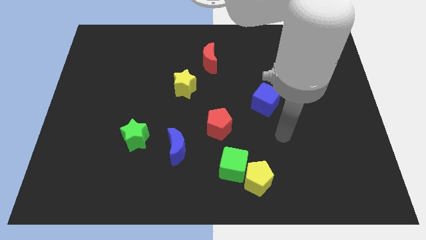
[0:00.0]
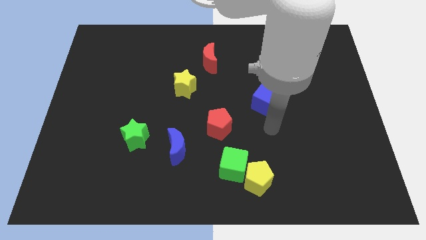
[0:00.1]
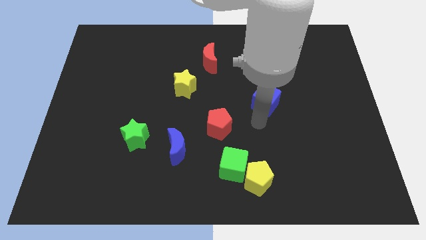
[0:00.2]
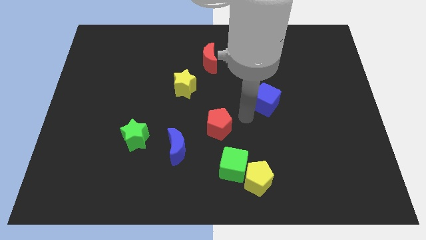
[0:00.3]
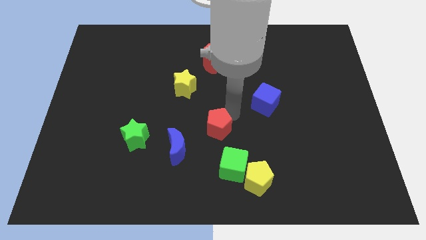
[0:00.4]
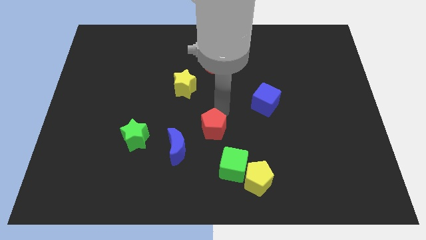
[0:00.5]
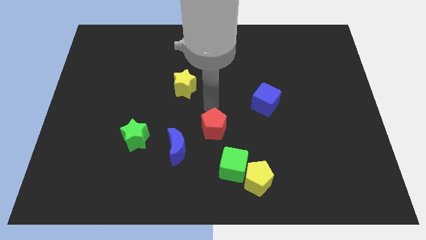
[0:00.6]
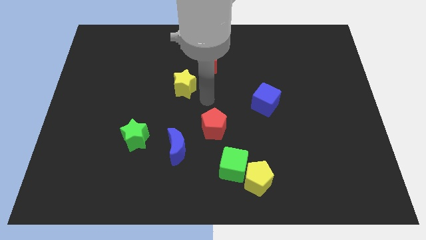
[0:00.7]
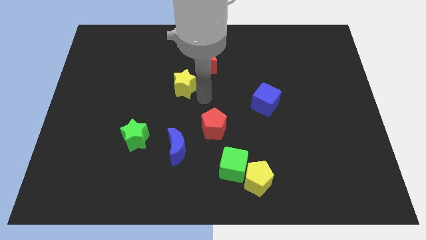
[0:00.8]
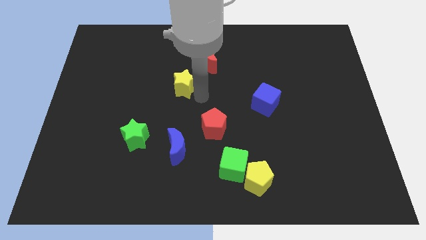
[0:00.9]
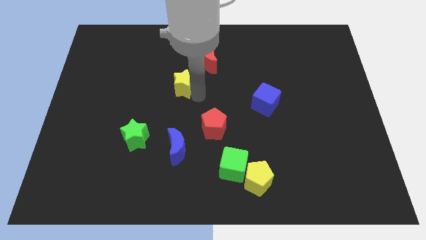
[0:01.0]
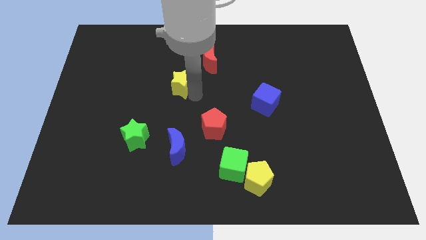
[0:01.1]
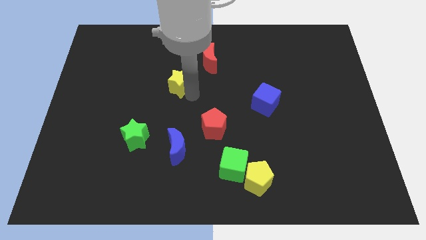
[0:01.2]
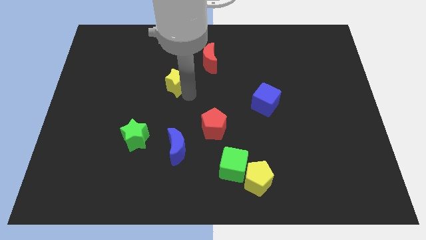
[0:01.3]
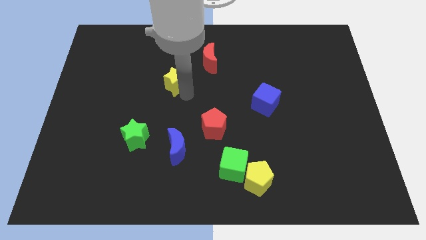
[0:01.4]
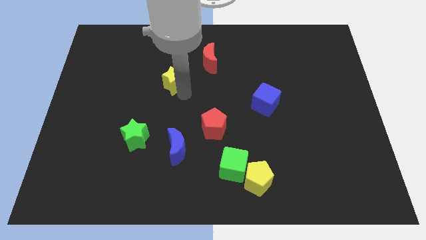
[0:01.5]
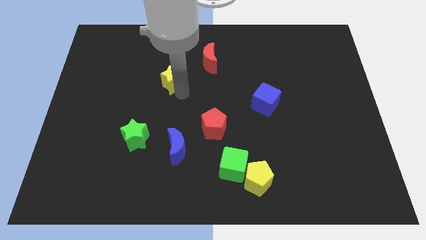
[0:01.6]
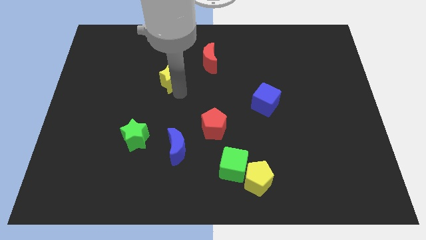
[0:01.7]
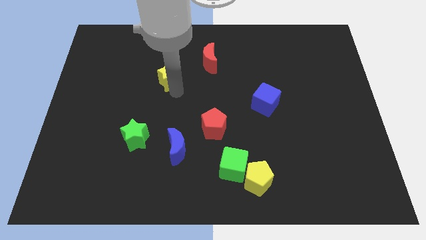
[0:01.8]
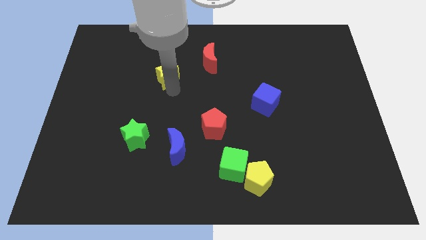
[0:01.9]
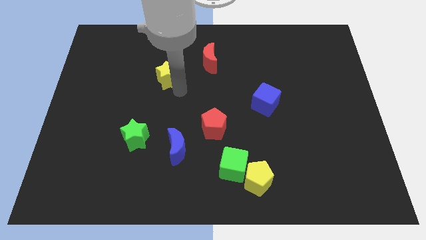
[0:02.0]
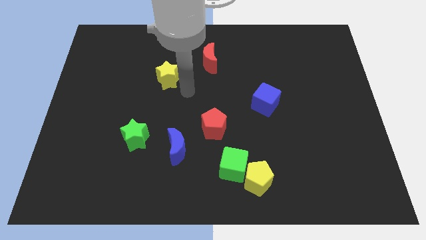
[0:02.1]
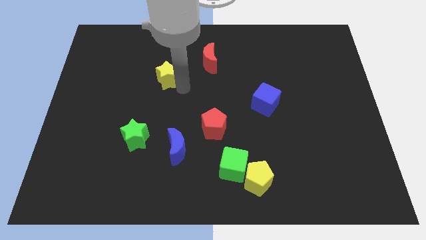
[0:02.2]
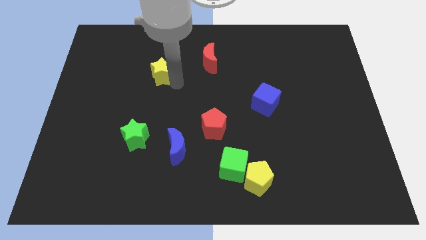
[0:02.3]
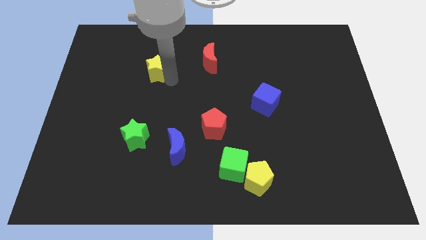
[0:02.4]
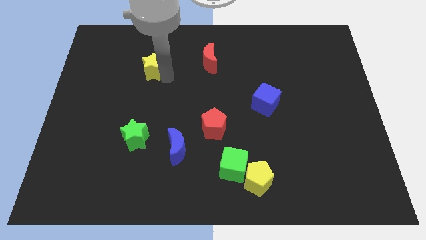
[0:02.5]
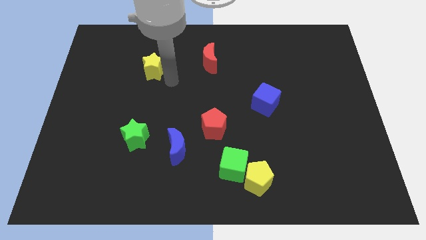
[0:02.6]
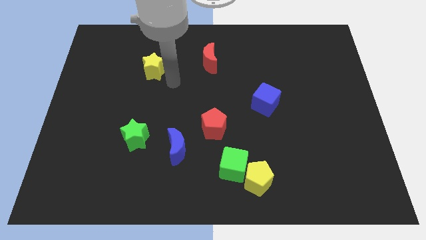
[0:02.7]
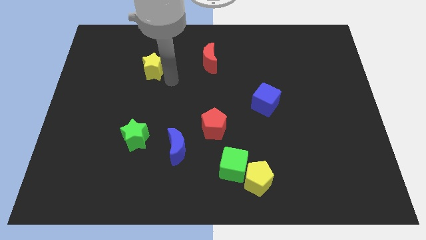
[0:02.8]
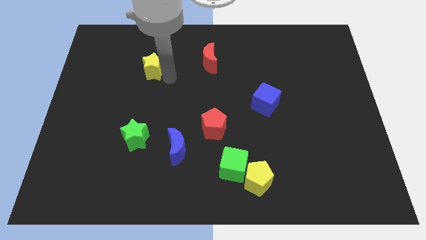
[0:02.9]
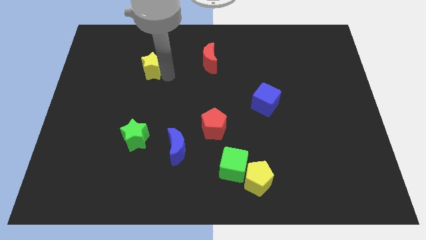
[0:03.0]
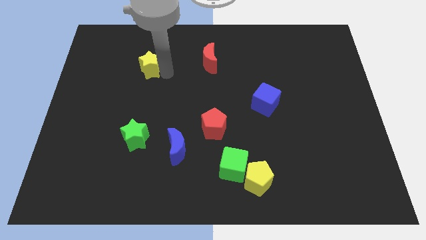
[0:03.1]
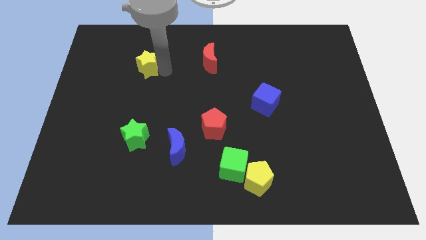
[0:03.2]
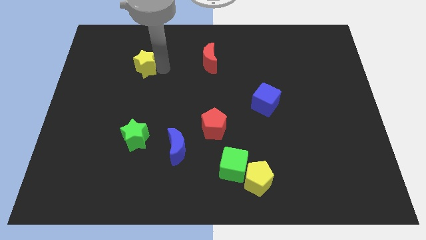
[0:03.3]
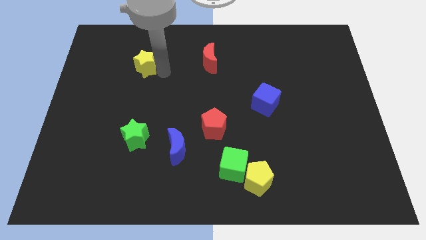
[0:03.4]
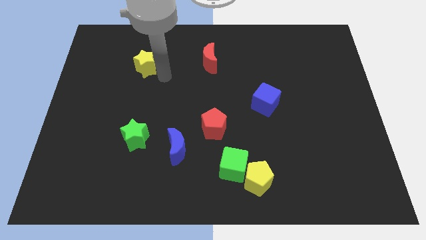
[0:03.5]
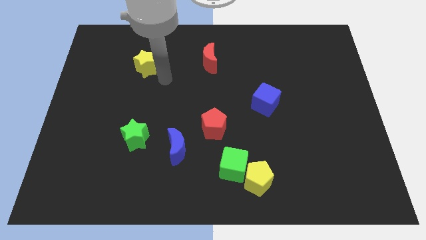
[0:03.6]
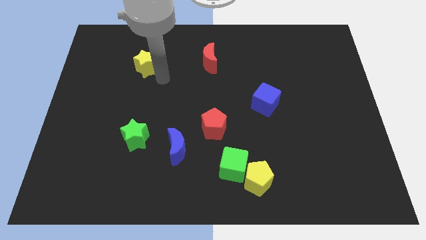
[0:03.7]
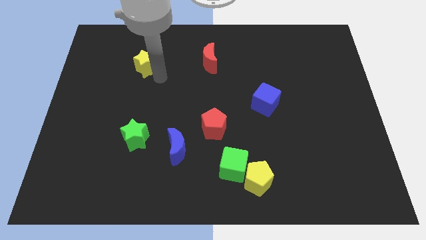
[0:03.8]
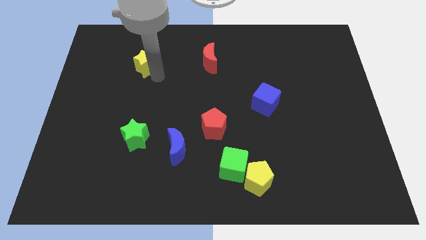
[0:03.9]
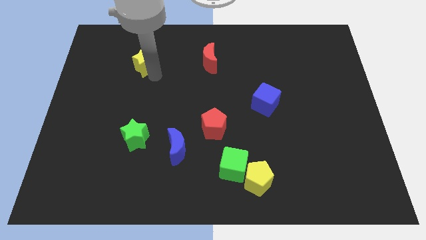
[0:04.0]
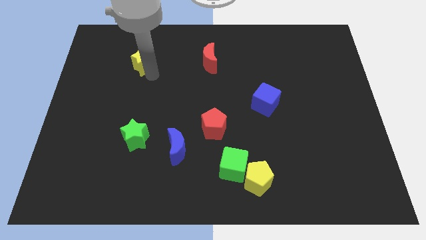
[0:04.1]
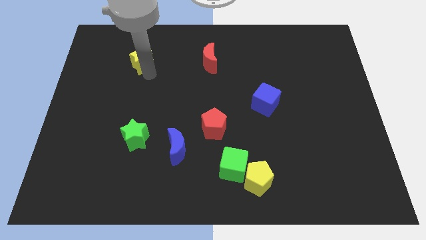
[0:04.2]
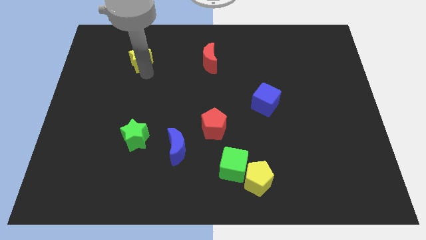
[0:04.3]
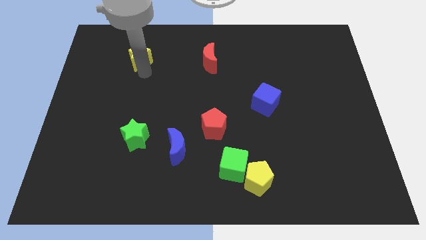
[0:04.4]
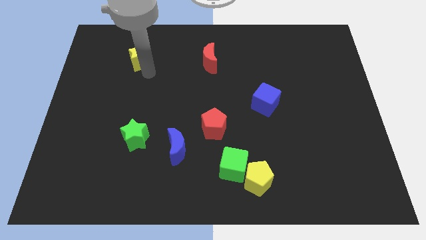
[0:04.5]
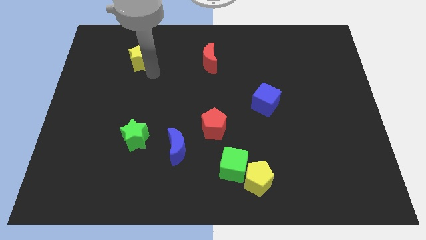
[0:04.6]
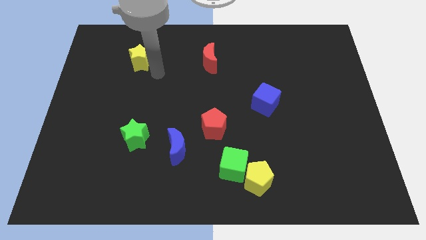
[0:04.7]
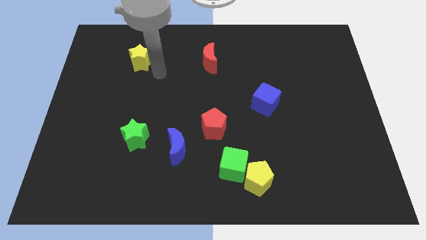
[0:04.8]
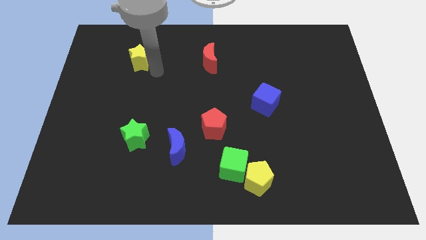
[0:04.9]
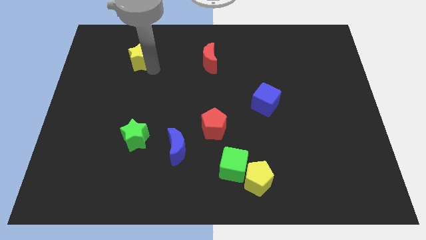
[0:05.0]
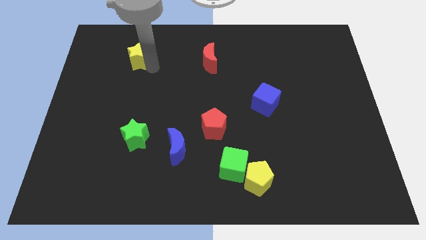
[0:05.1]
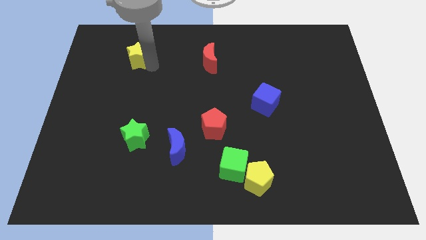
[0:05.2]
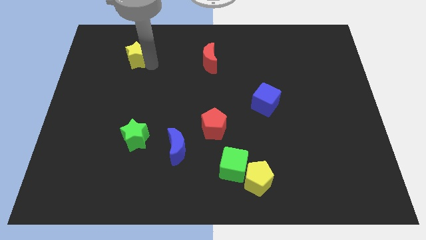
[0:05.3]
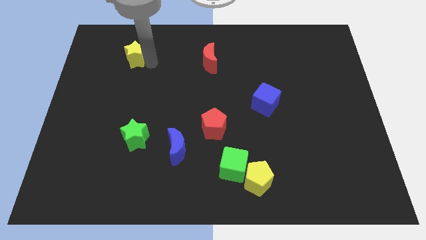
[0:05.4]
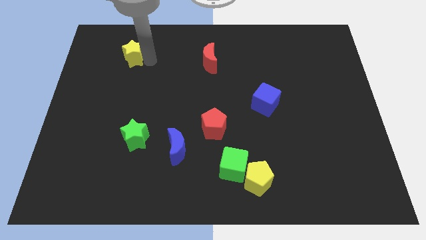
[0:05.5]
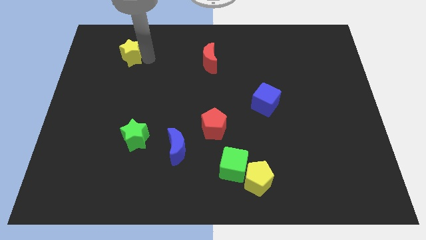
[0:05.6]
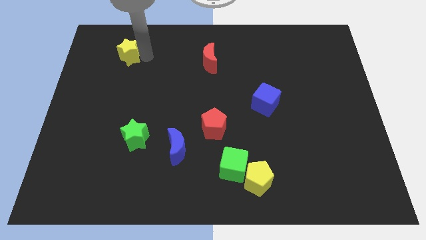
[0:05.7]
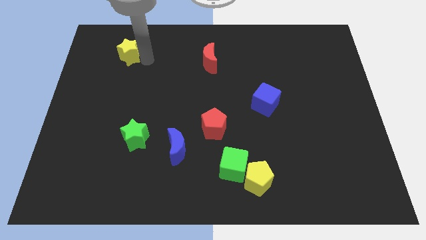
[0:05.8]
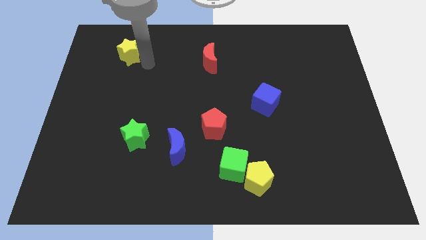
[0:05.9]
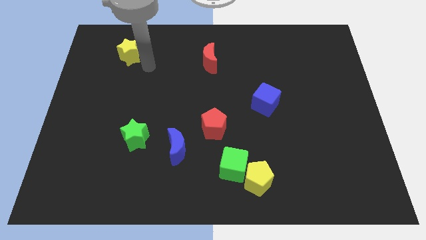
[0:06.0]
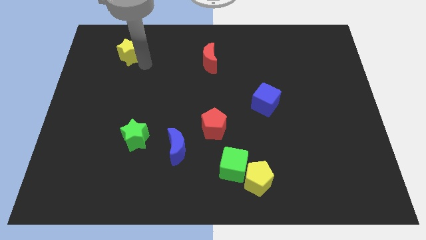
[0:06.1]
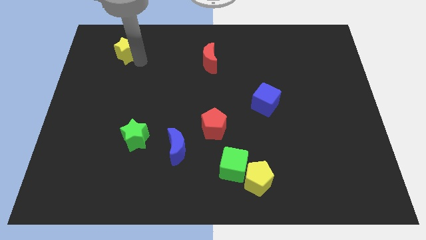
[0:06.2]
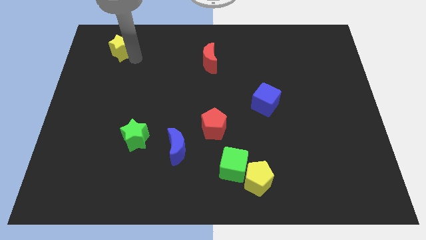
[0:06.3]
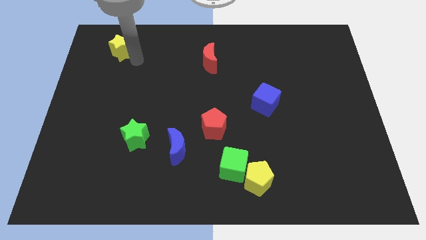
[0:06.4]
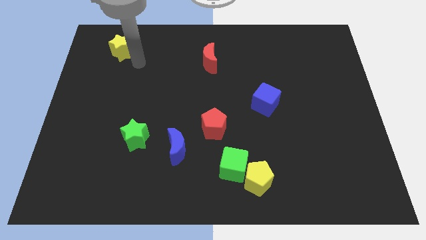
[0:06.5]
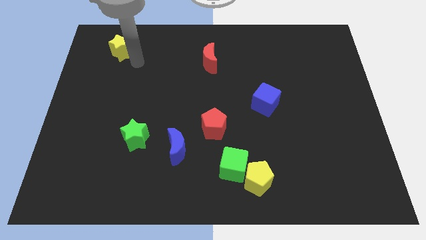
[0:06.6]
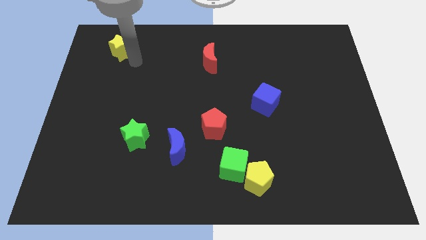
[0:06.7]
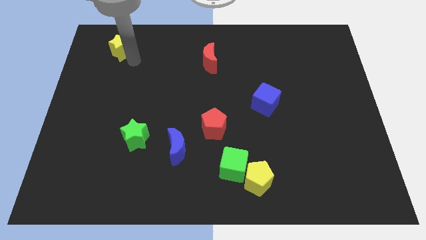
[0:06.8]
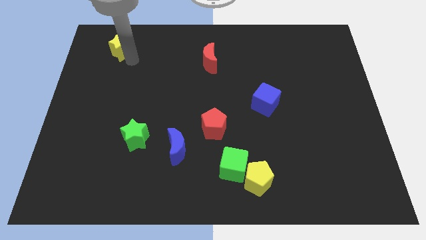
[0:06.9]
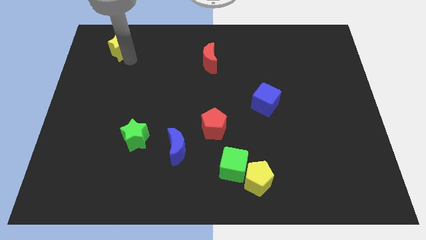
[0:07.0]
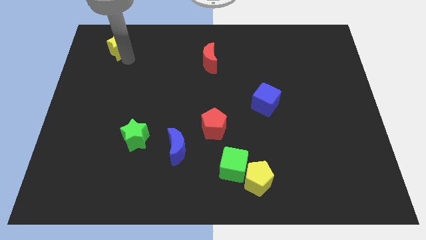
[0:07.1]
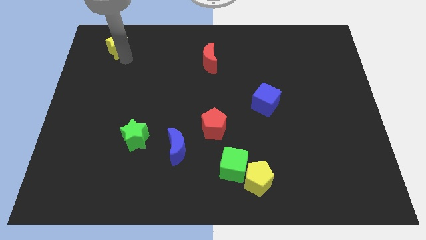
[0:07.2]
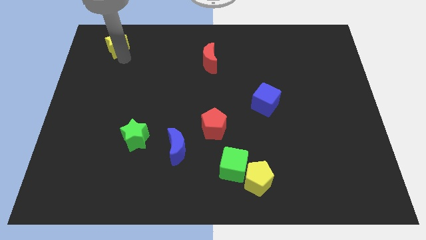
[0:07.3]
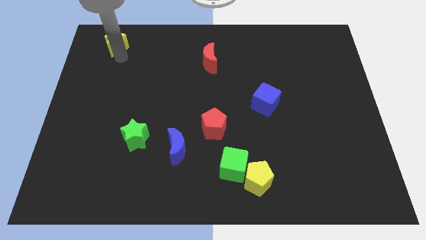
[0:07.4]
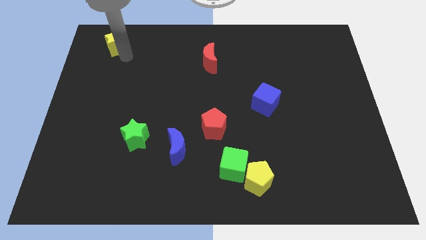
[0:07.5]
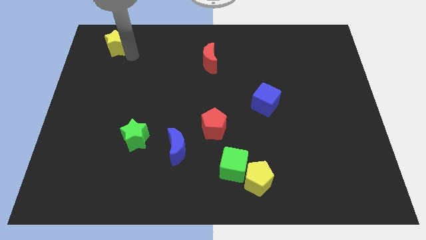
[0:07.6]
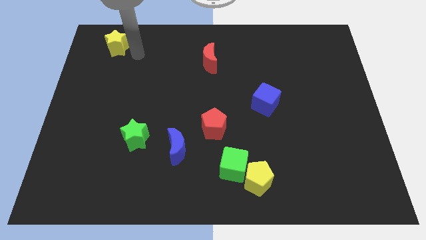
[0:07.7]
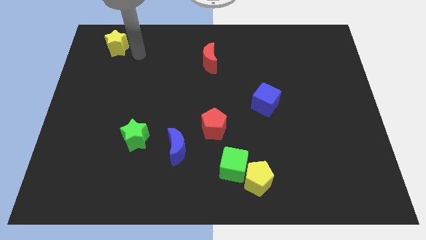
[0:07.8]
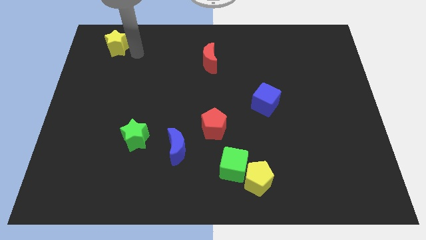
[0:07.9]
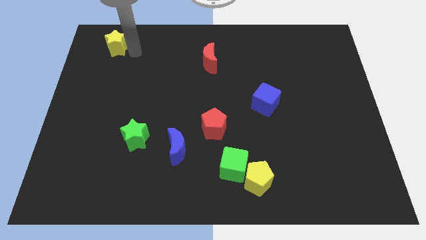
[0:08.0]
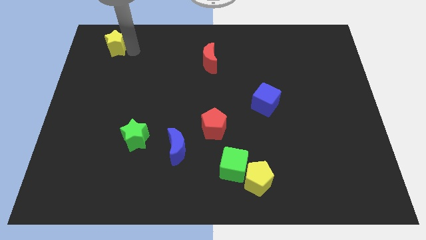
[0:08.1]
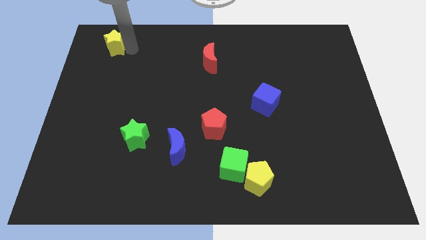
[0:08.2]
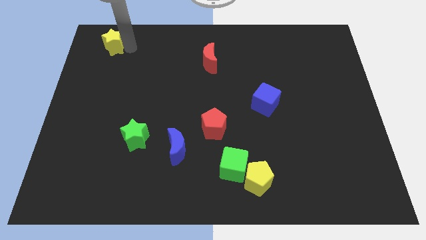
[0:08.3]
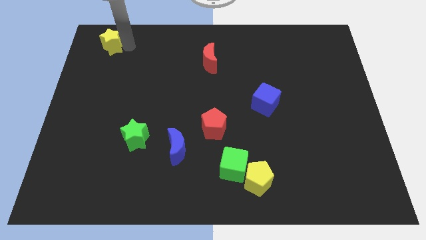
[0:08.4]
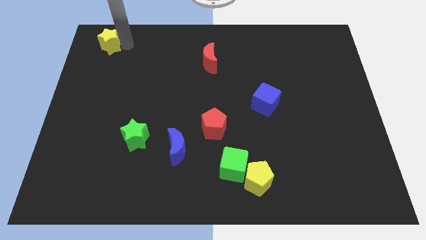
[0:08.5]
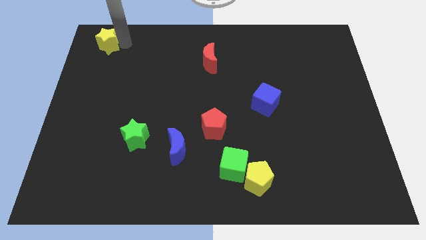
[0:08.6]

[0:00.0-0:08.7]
put the yellow star to the top left
